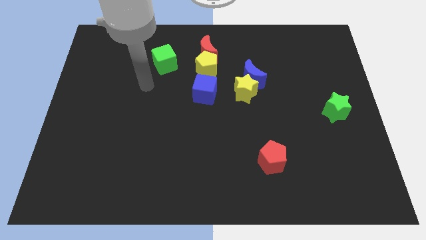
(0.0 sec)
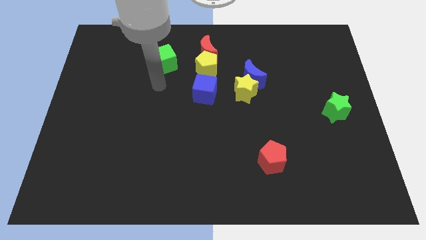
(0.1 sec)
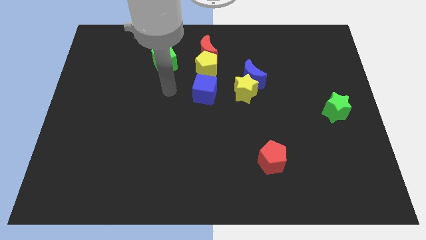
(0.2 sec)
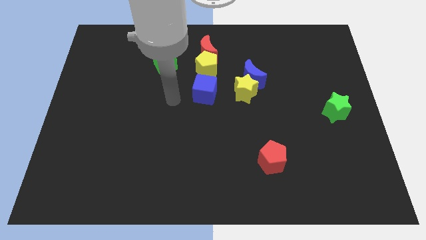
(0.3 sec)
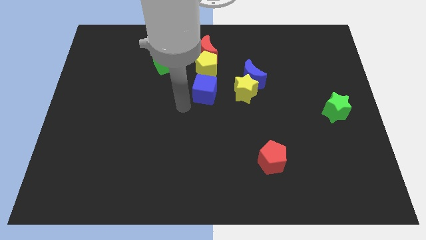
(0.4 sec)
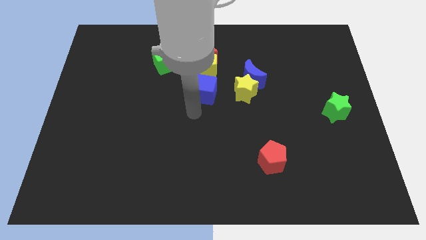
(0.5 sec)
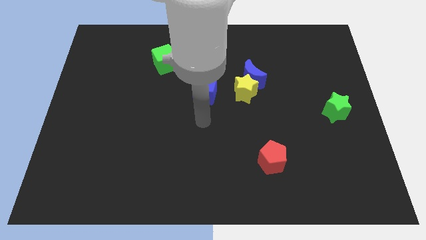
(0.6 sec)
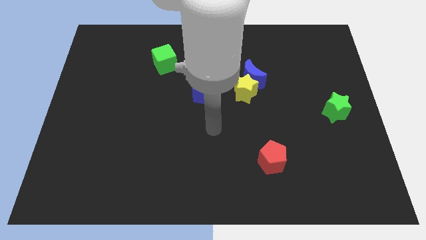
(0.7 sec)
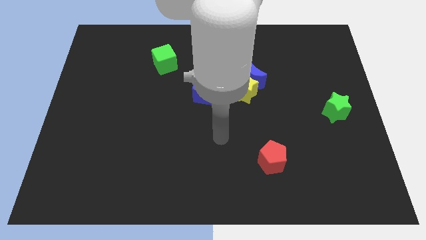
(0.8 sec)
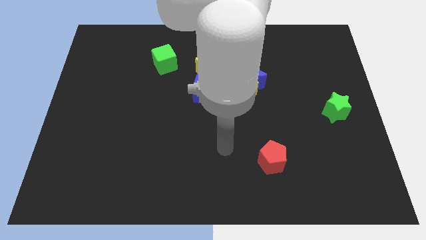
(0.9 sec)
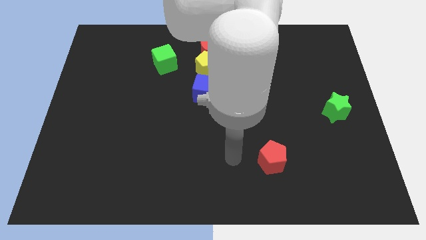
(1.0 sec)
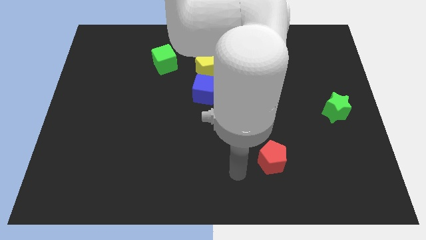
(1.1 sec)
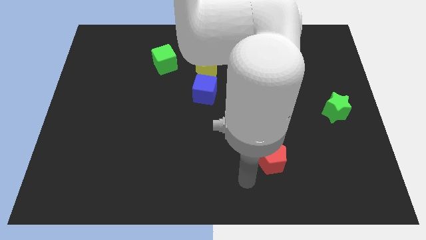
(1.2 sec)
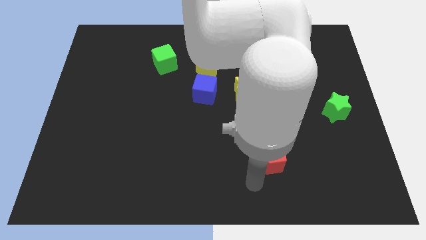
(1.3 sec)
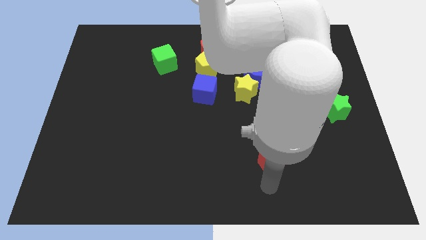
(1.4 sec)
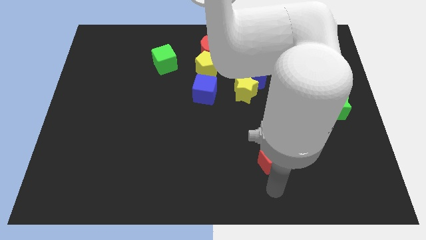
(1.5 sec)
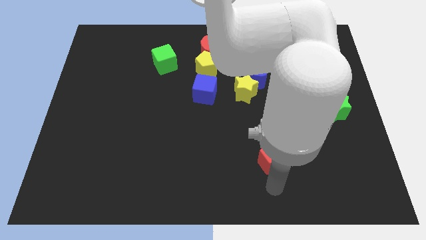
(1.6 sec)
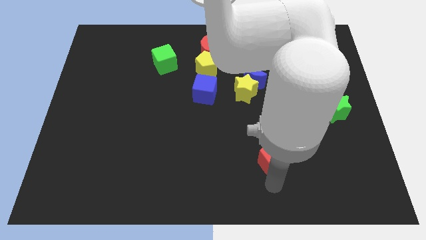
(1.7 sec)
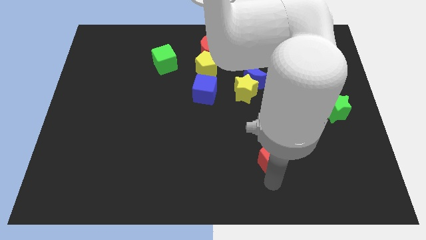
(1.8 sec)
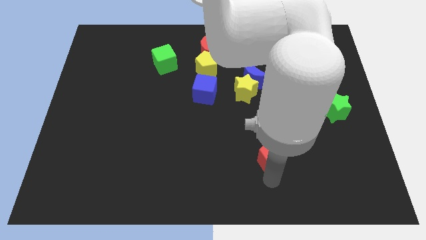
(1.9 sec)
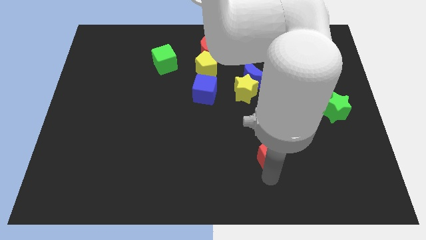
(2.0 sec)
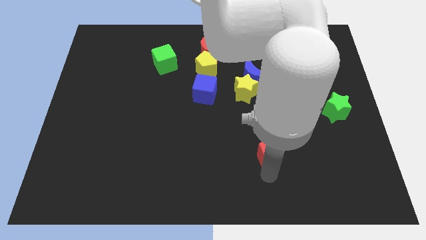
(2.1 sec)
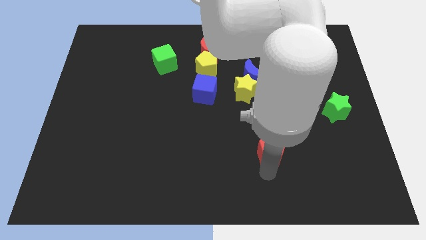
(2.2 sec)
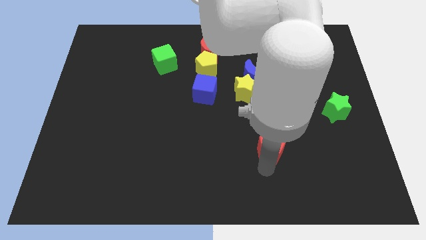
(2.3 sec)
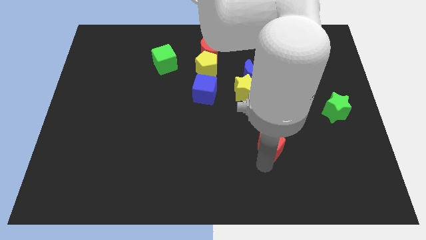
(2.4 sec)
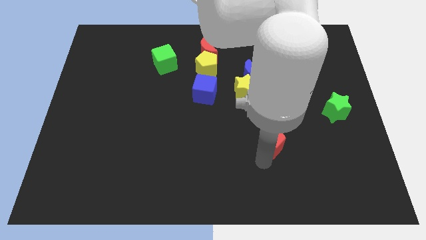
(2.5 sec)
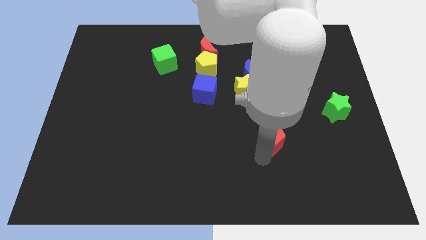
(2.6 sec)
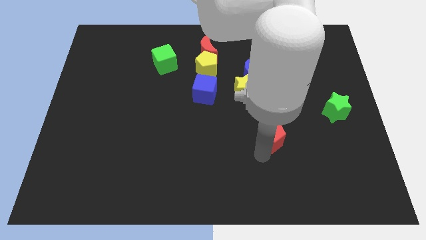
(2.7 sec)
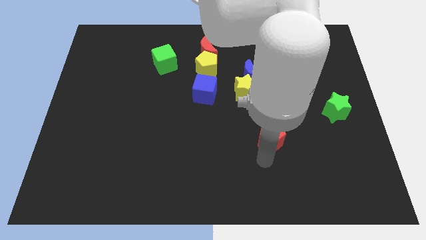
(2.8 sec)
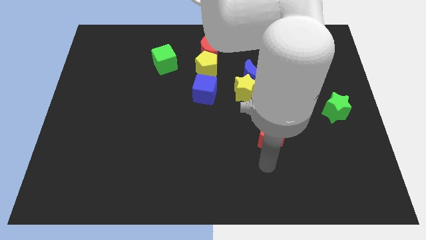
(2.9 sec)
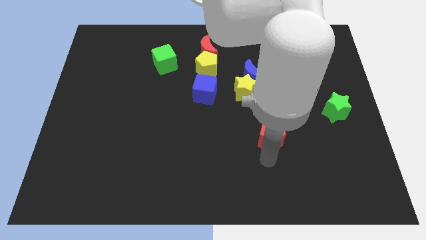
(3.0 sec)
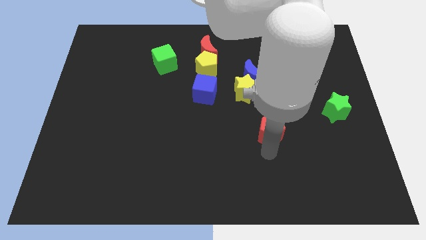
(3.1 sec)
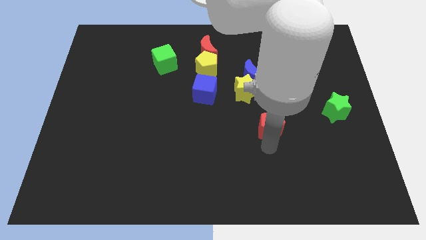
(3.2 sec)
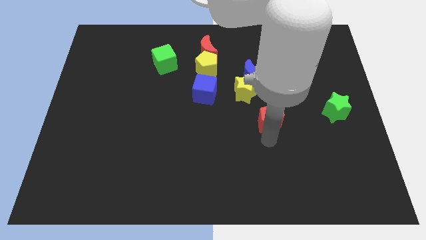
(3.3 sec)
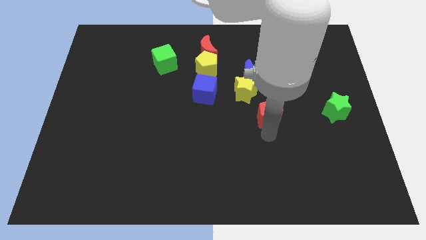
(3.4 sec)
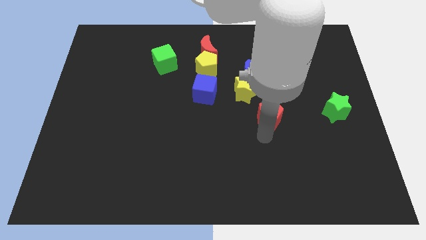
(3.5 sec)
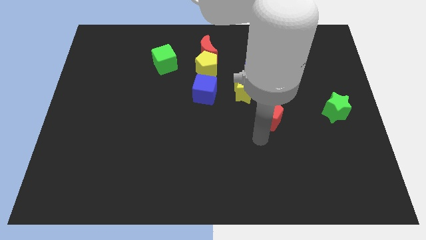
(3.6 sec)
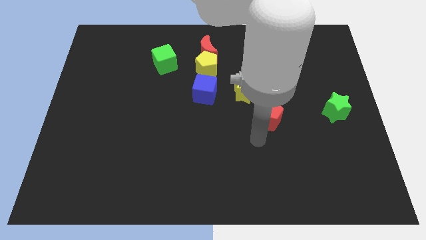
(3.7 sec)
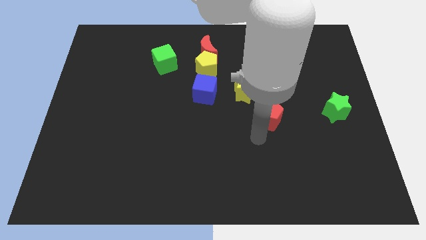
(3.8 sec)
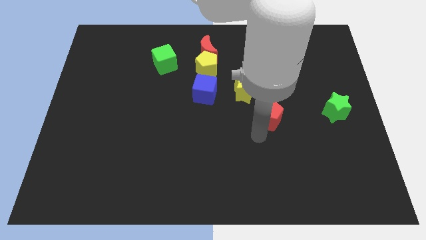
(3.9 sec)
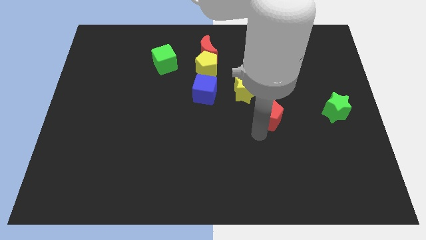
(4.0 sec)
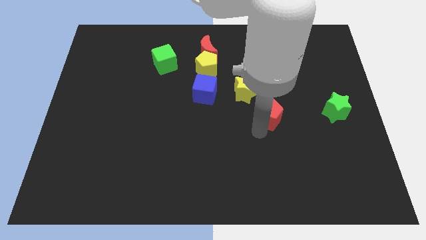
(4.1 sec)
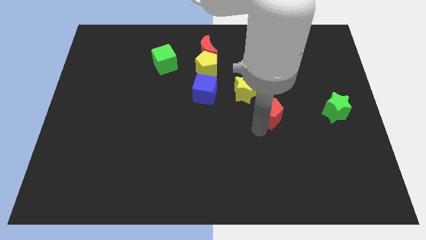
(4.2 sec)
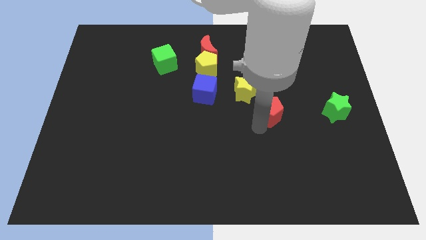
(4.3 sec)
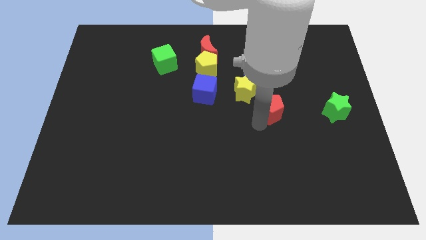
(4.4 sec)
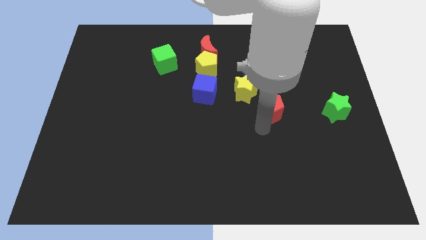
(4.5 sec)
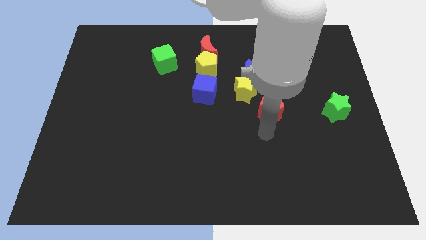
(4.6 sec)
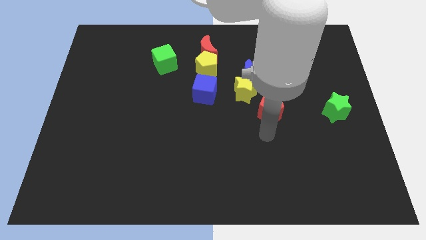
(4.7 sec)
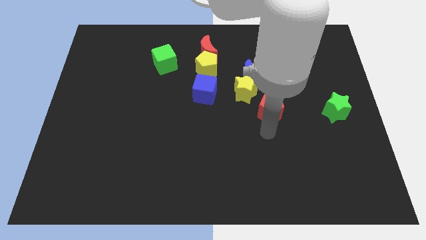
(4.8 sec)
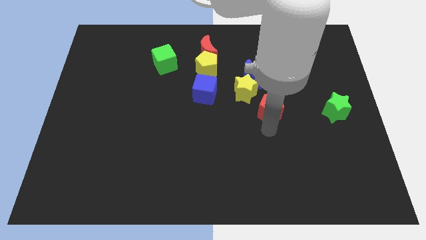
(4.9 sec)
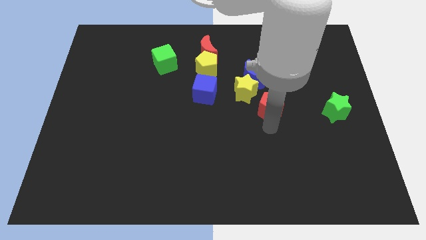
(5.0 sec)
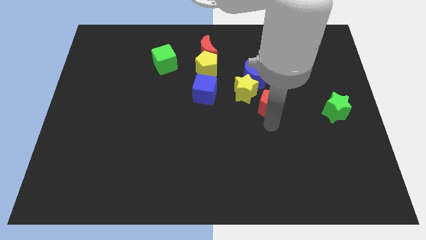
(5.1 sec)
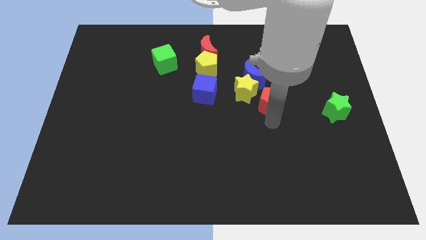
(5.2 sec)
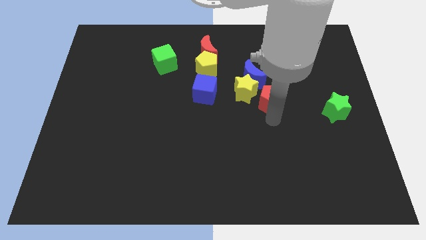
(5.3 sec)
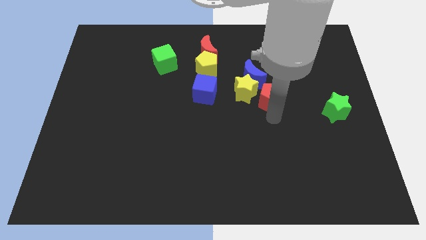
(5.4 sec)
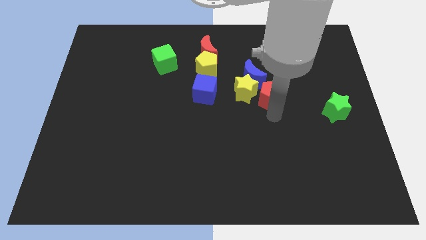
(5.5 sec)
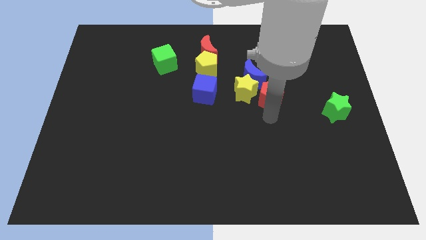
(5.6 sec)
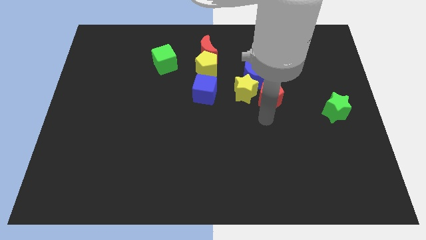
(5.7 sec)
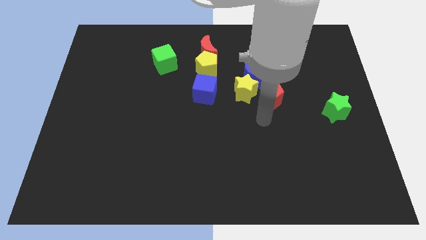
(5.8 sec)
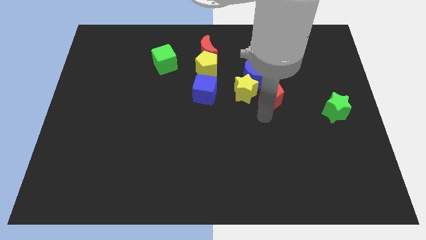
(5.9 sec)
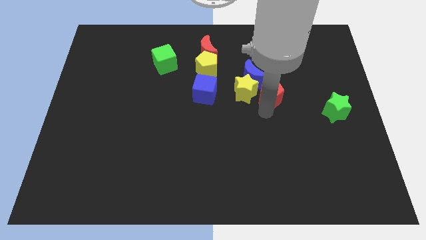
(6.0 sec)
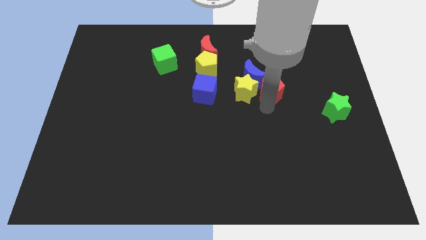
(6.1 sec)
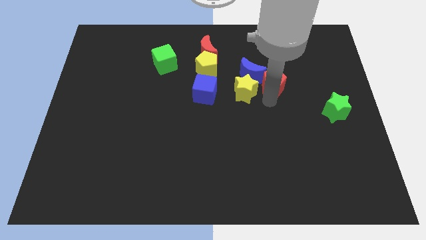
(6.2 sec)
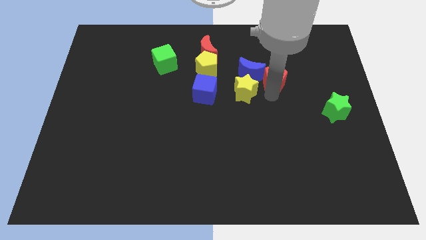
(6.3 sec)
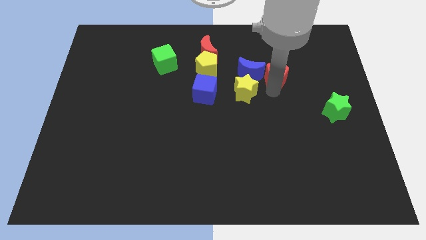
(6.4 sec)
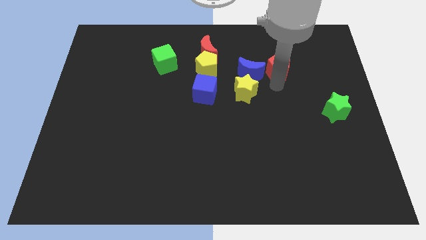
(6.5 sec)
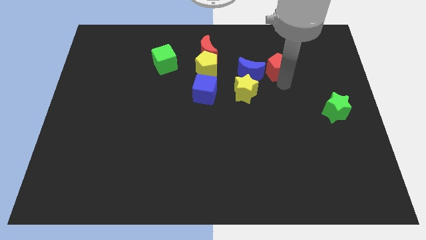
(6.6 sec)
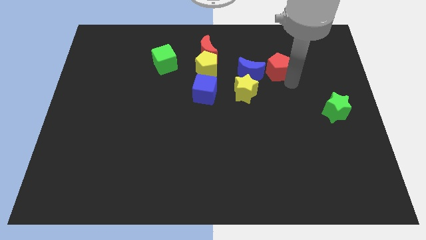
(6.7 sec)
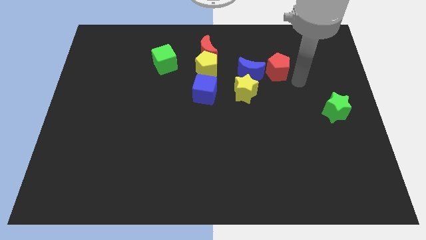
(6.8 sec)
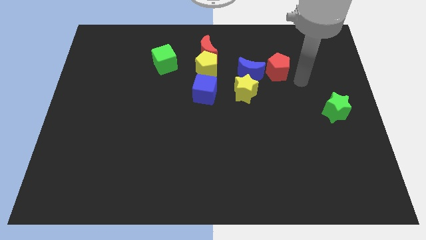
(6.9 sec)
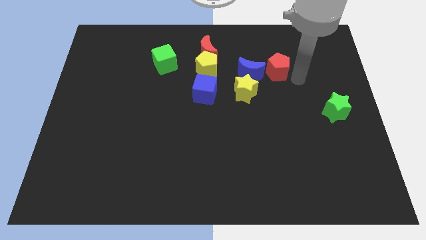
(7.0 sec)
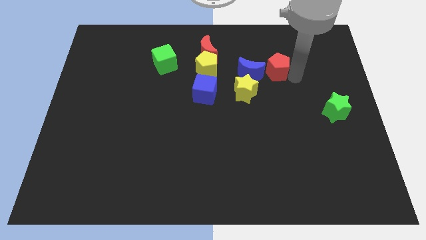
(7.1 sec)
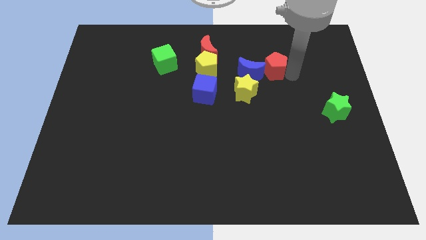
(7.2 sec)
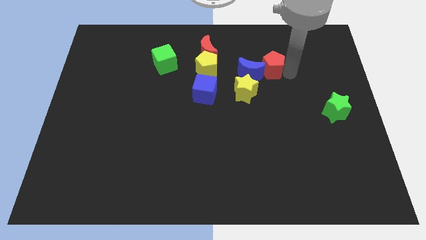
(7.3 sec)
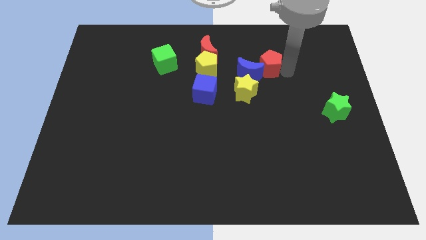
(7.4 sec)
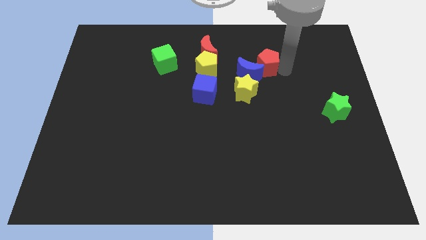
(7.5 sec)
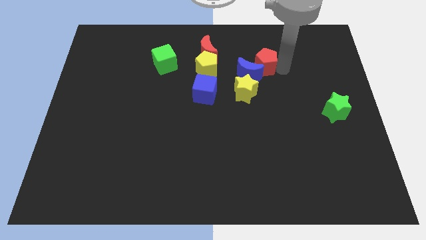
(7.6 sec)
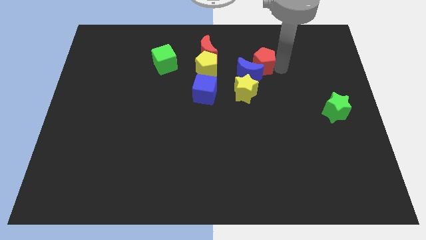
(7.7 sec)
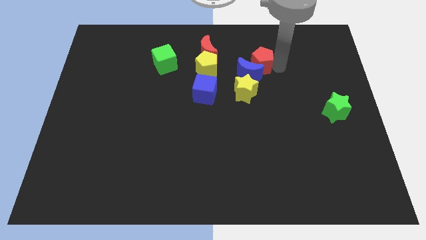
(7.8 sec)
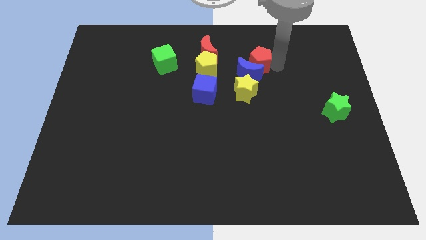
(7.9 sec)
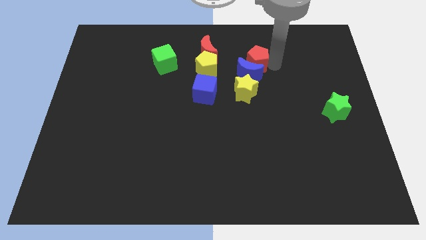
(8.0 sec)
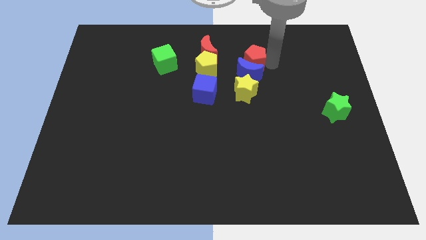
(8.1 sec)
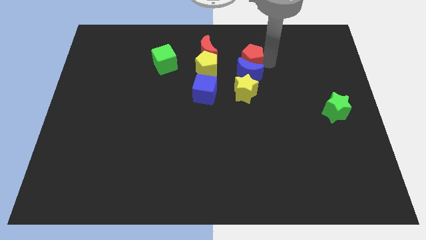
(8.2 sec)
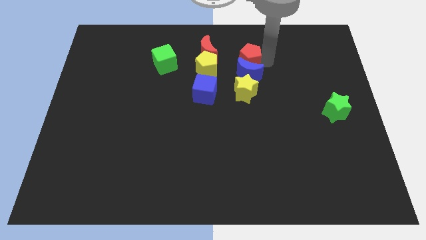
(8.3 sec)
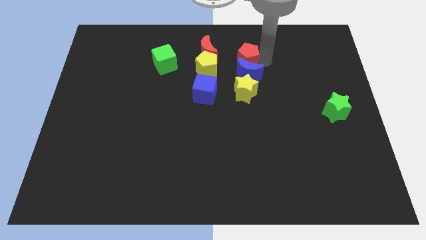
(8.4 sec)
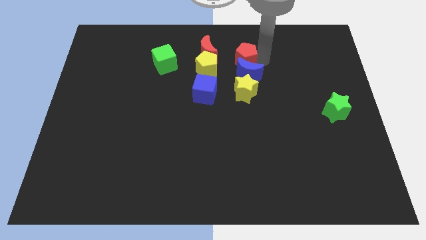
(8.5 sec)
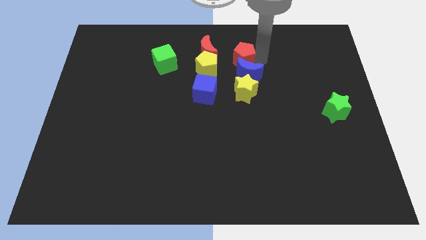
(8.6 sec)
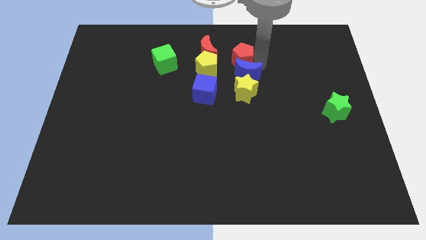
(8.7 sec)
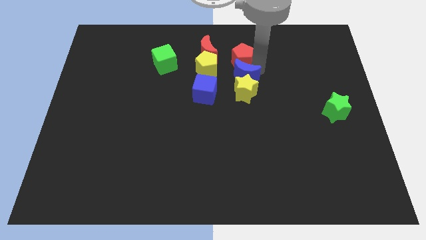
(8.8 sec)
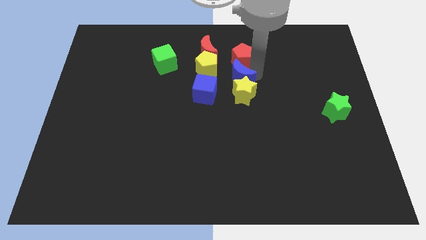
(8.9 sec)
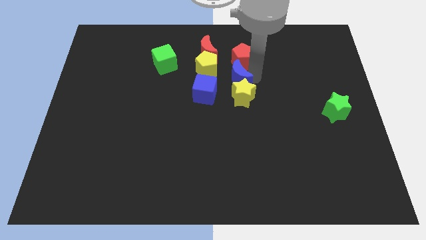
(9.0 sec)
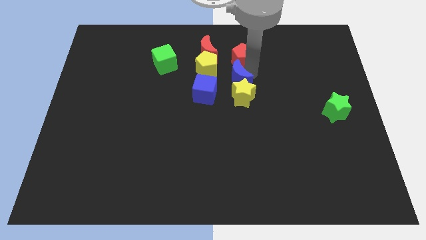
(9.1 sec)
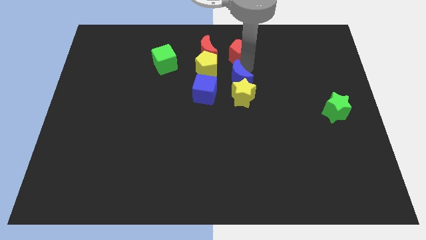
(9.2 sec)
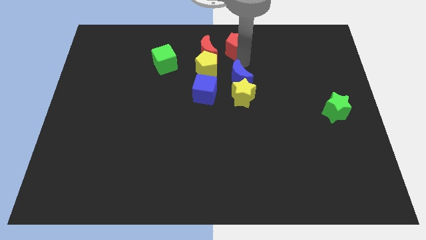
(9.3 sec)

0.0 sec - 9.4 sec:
push the red pentagon to the top
